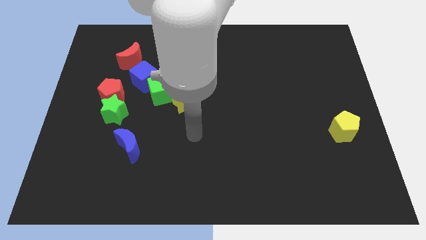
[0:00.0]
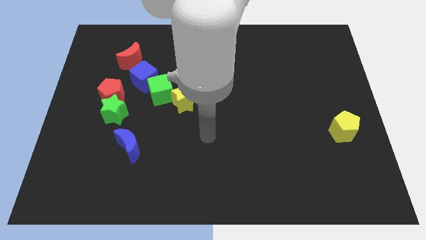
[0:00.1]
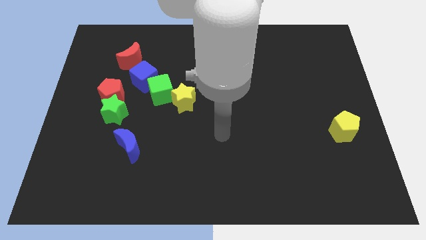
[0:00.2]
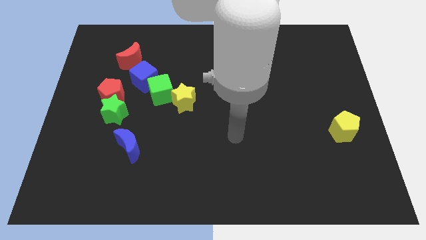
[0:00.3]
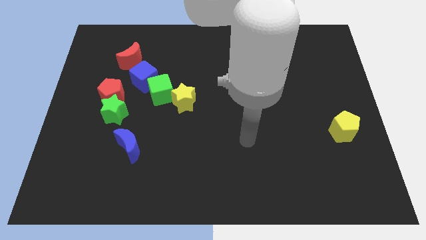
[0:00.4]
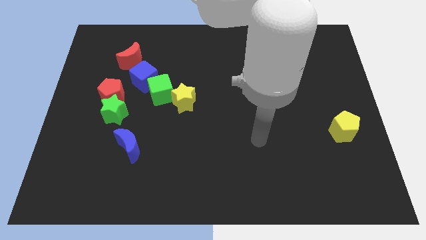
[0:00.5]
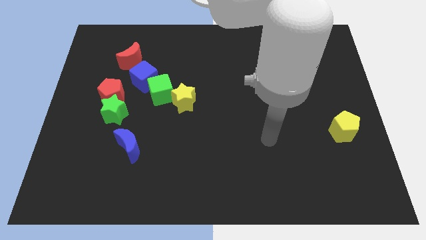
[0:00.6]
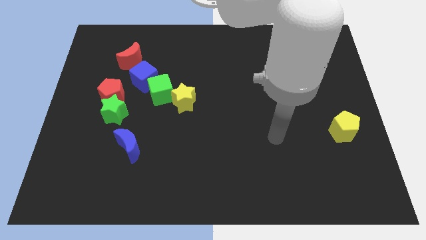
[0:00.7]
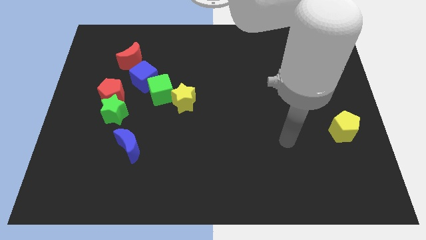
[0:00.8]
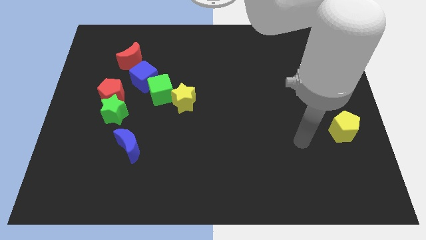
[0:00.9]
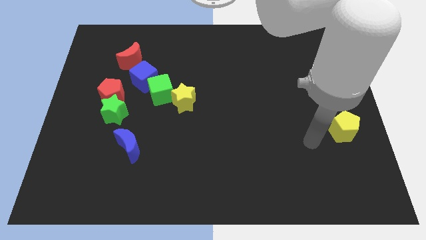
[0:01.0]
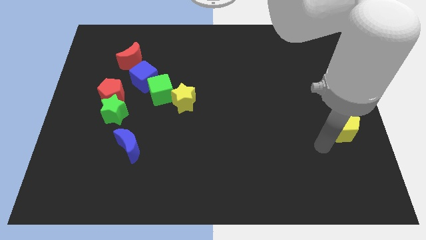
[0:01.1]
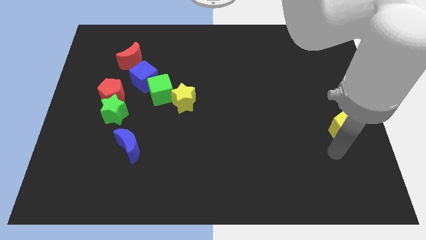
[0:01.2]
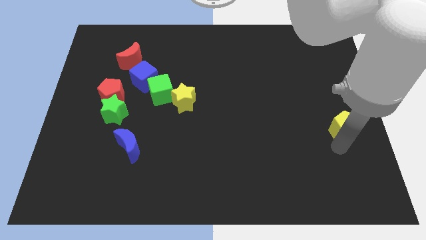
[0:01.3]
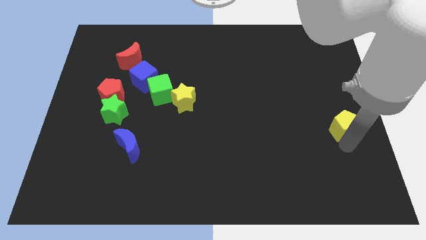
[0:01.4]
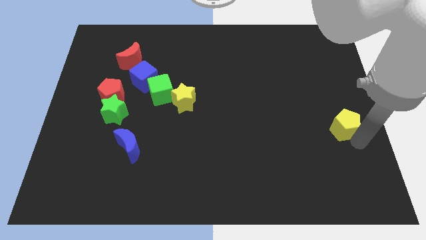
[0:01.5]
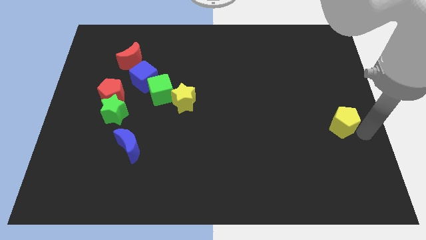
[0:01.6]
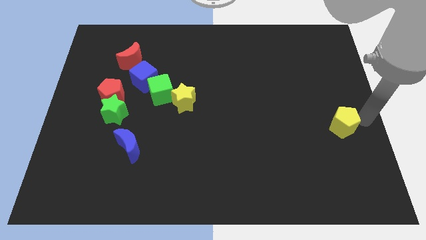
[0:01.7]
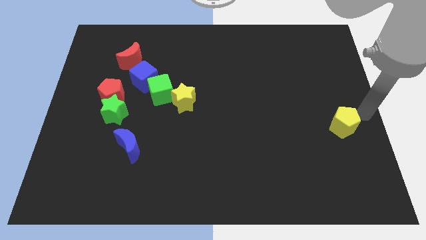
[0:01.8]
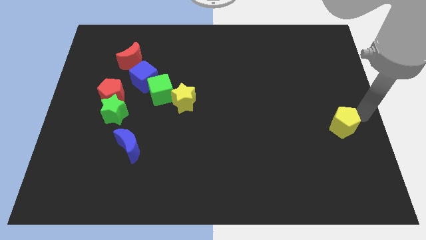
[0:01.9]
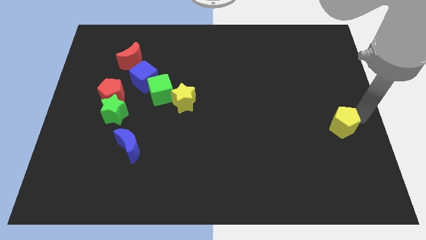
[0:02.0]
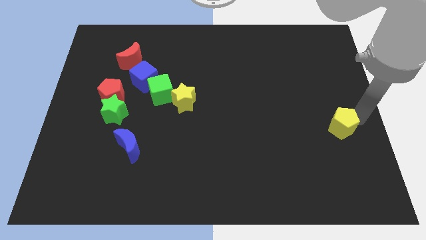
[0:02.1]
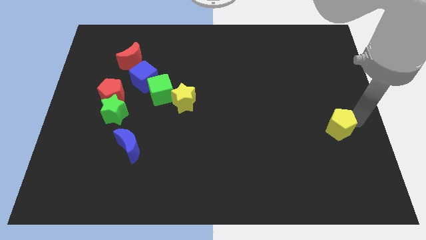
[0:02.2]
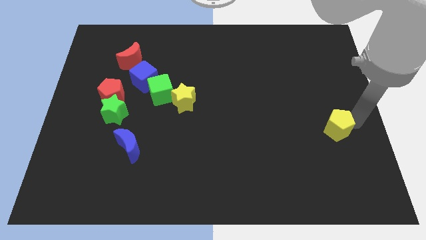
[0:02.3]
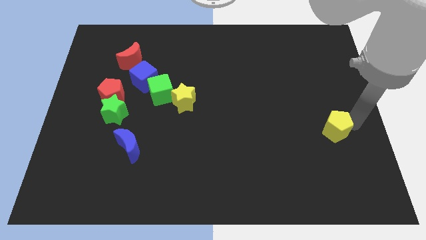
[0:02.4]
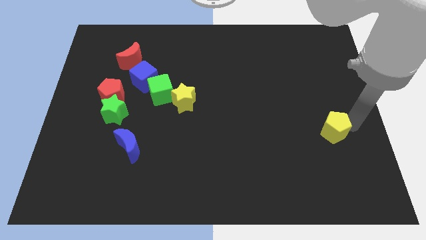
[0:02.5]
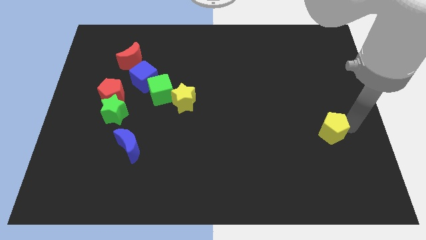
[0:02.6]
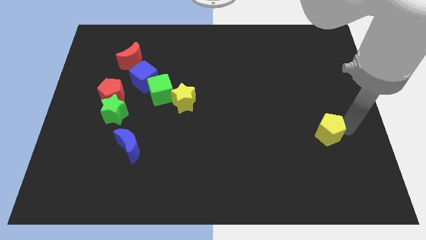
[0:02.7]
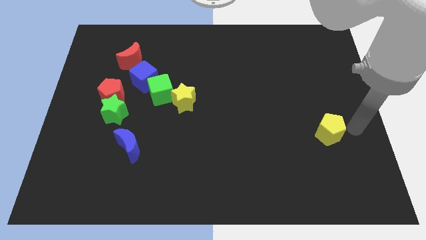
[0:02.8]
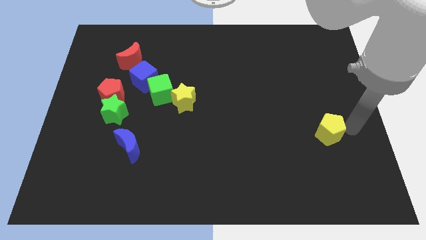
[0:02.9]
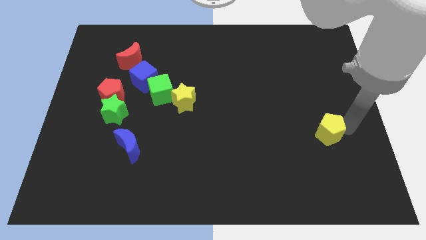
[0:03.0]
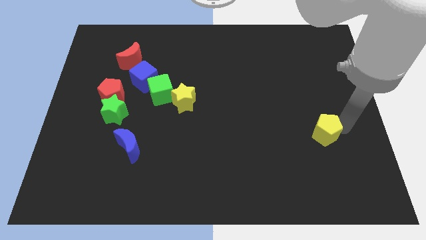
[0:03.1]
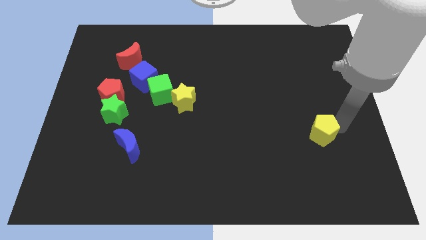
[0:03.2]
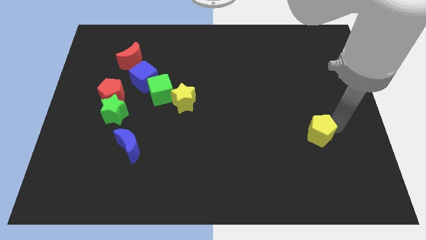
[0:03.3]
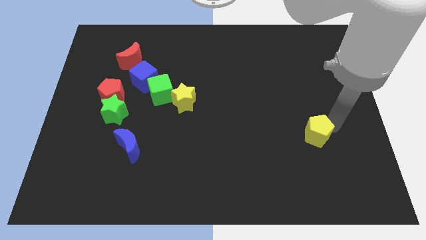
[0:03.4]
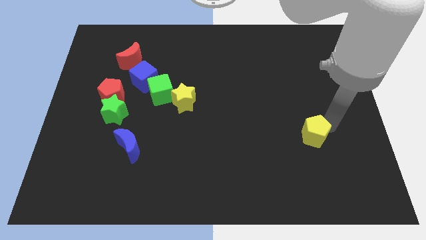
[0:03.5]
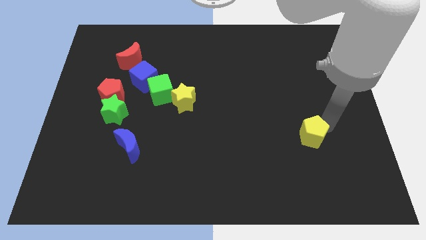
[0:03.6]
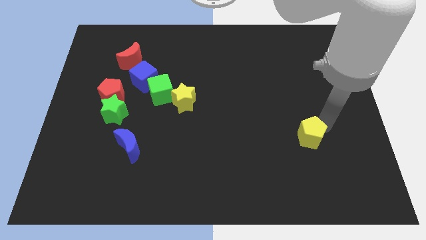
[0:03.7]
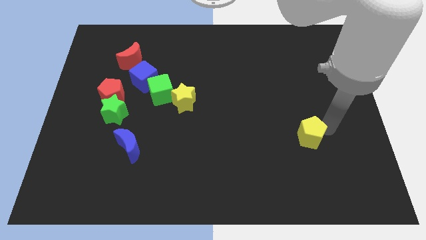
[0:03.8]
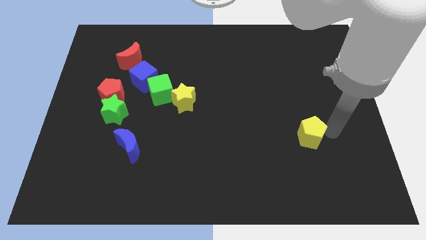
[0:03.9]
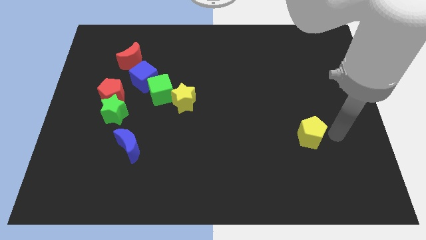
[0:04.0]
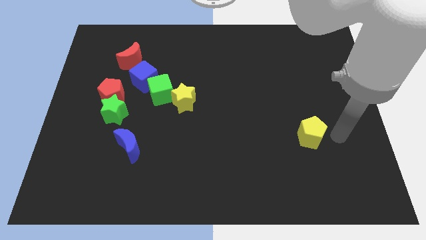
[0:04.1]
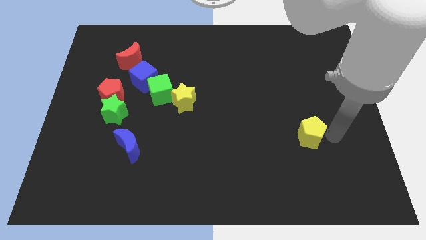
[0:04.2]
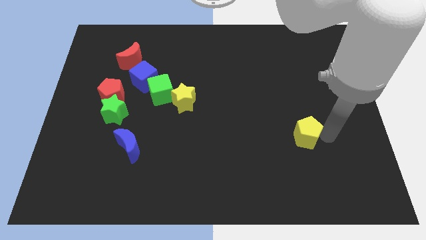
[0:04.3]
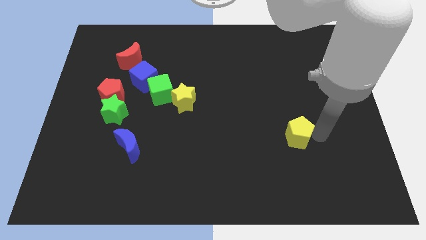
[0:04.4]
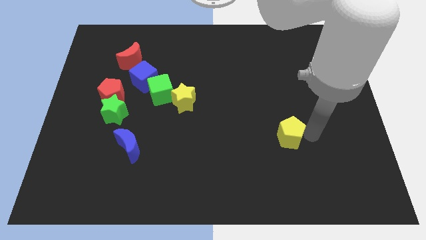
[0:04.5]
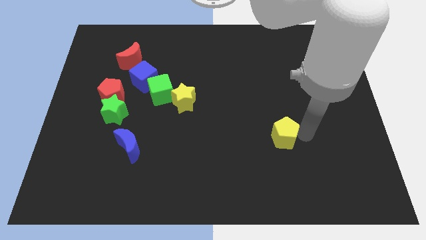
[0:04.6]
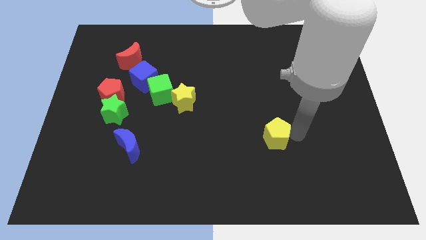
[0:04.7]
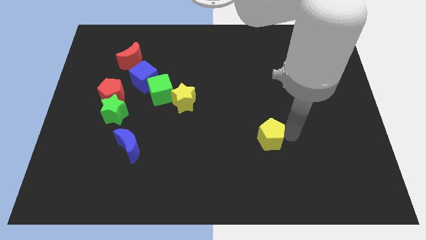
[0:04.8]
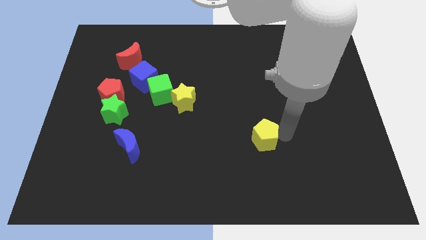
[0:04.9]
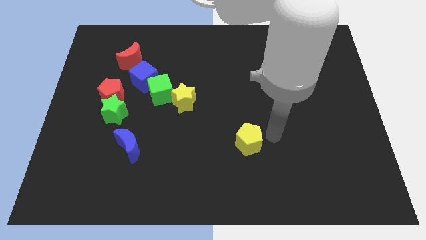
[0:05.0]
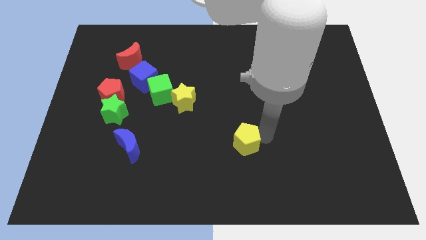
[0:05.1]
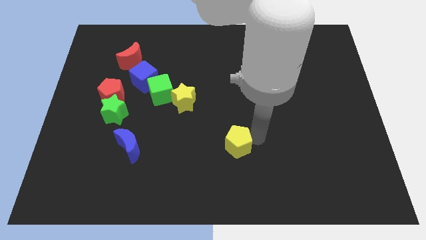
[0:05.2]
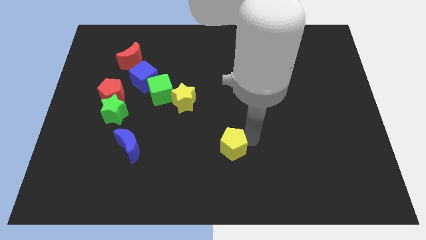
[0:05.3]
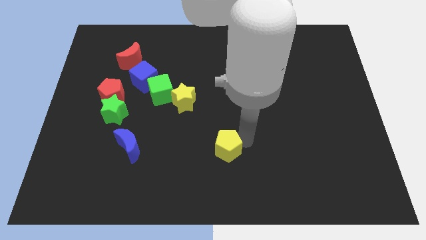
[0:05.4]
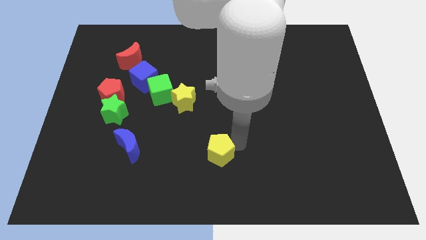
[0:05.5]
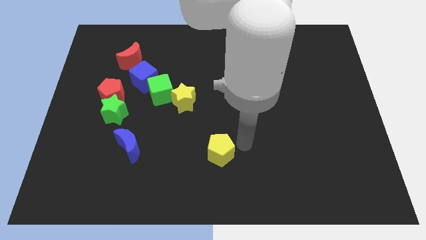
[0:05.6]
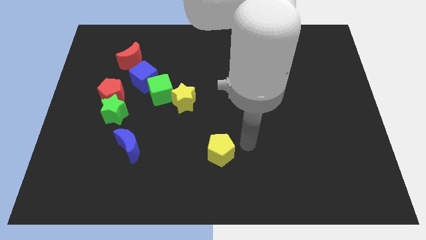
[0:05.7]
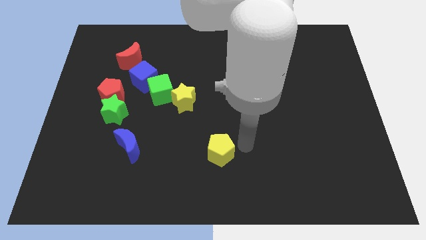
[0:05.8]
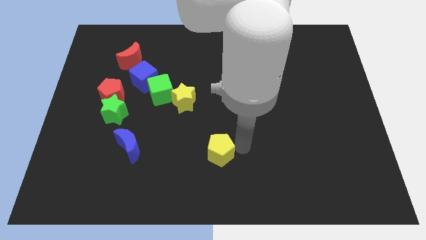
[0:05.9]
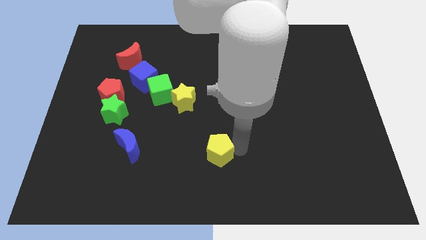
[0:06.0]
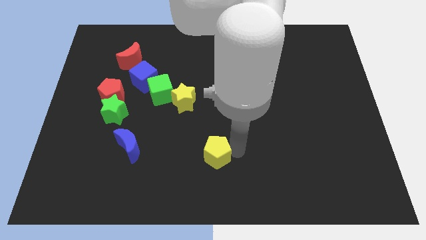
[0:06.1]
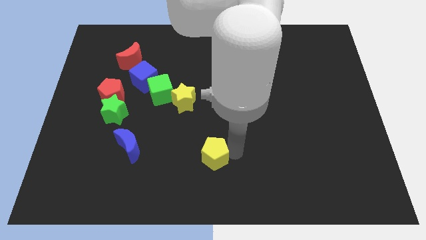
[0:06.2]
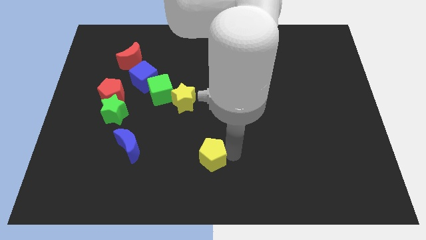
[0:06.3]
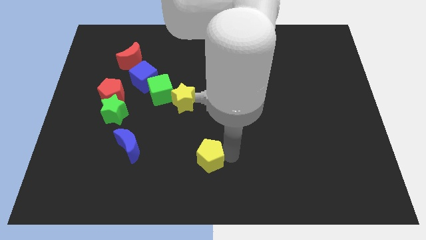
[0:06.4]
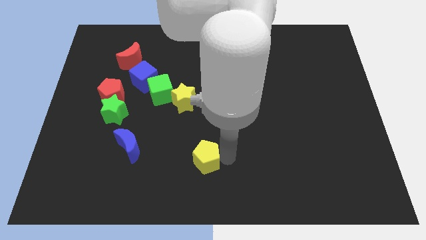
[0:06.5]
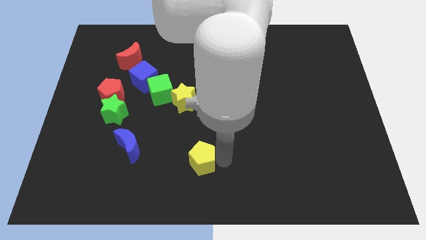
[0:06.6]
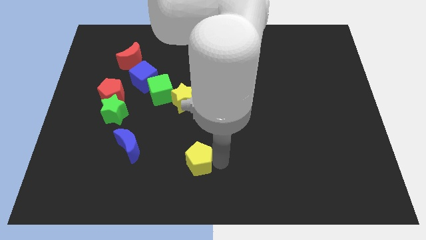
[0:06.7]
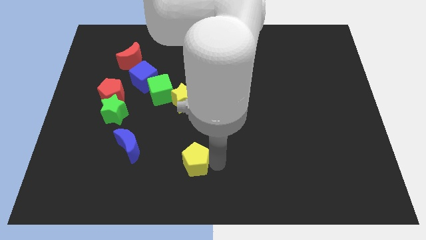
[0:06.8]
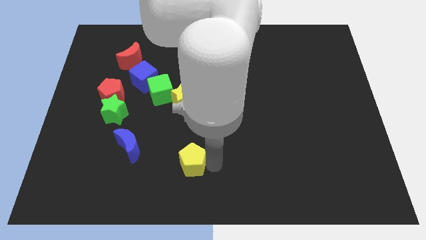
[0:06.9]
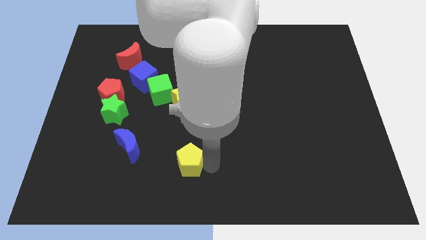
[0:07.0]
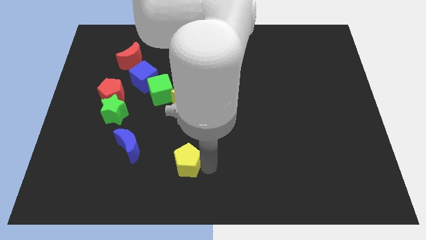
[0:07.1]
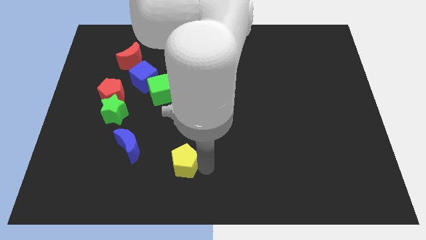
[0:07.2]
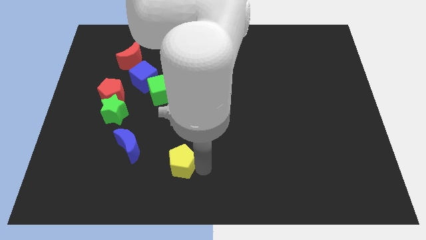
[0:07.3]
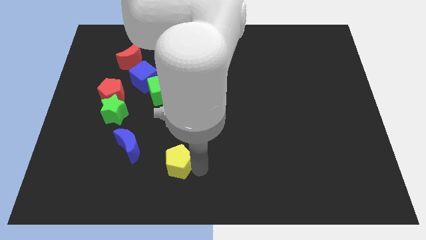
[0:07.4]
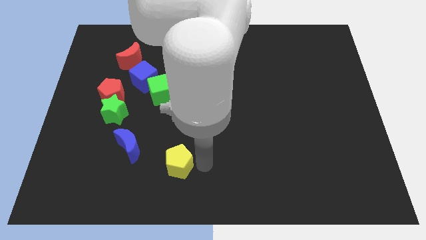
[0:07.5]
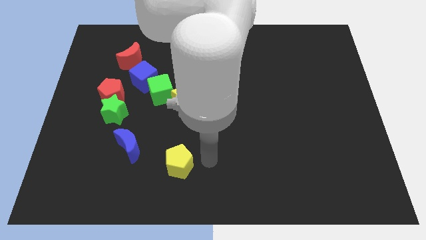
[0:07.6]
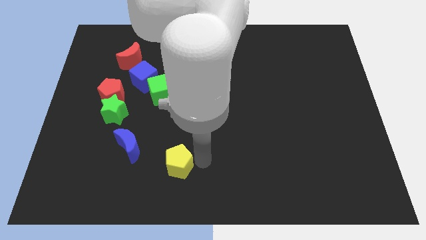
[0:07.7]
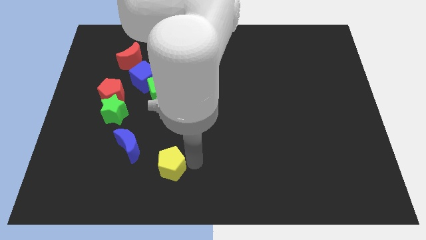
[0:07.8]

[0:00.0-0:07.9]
move the yellow pentagon to the bottom right of the blue moon
